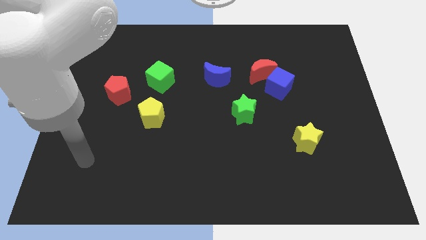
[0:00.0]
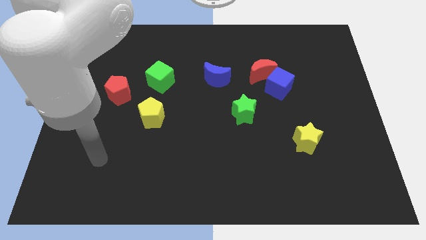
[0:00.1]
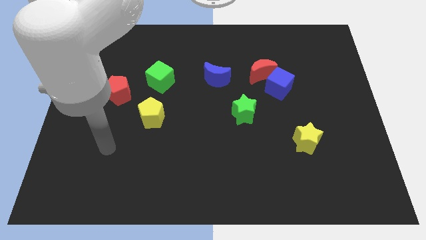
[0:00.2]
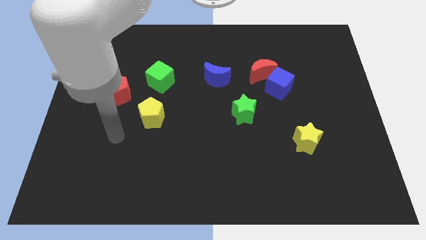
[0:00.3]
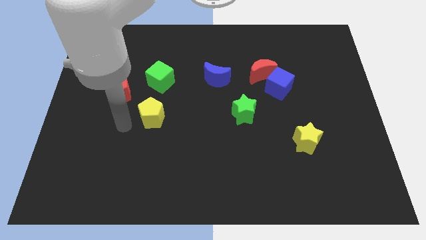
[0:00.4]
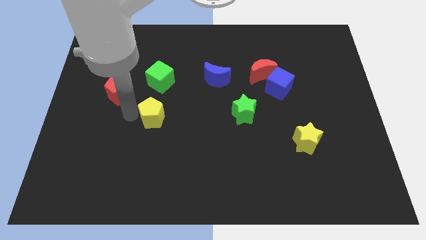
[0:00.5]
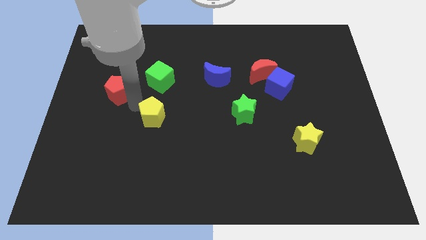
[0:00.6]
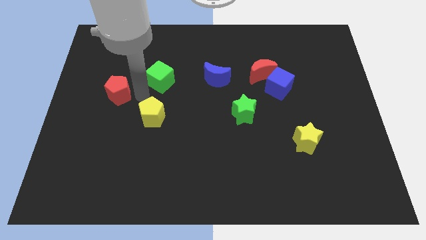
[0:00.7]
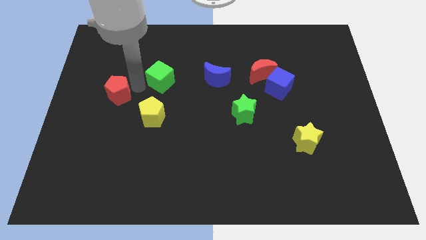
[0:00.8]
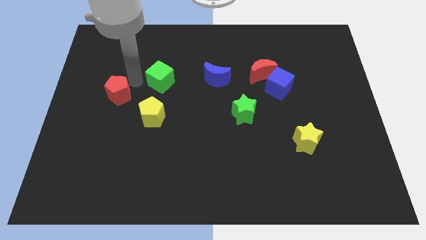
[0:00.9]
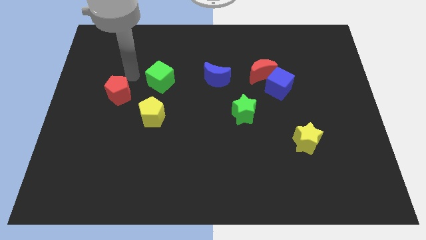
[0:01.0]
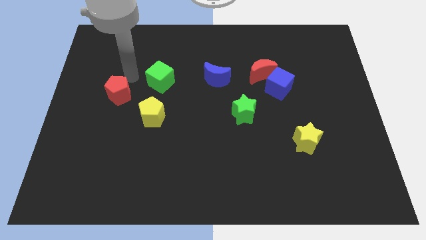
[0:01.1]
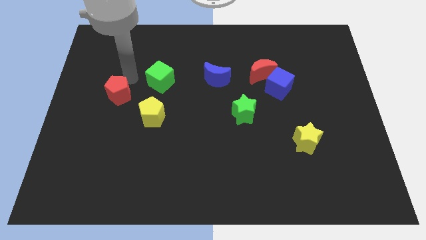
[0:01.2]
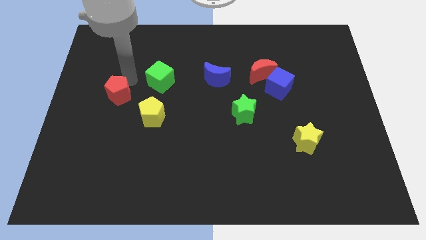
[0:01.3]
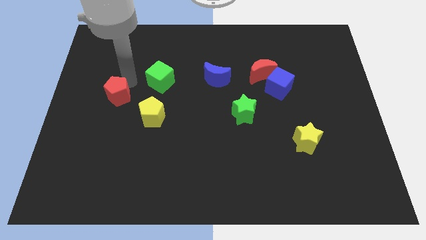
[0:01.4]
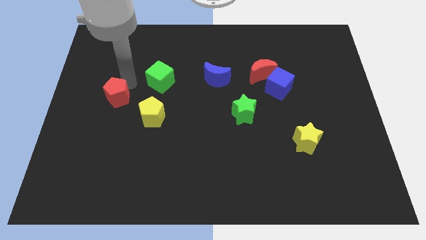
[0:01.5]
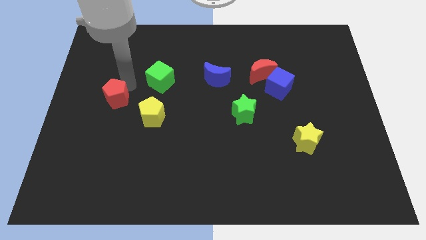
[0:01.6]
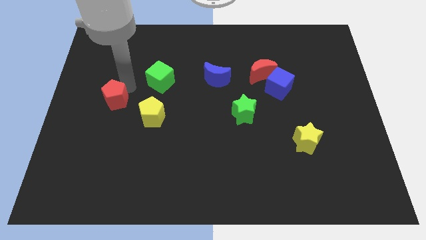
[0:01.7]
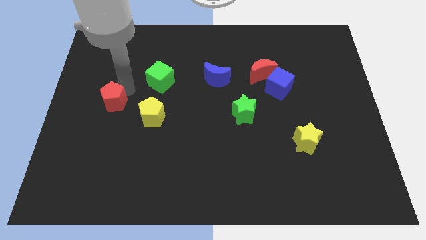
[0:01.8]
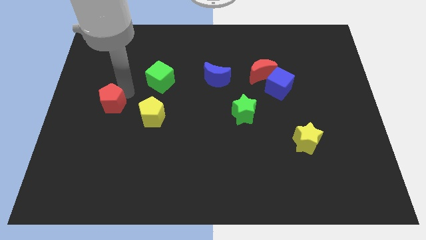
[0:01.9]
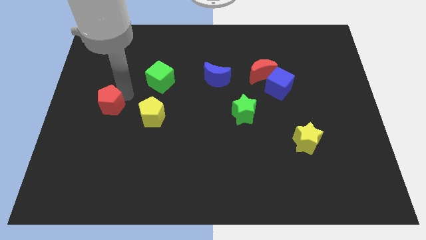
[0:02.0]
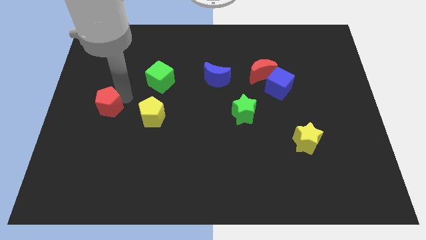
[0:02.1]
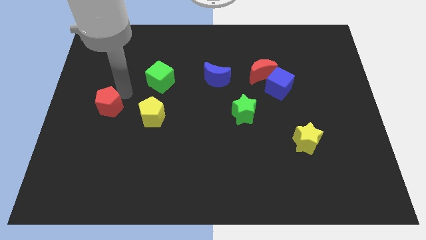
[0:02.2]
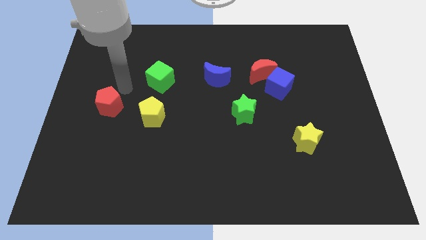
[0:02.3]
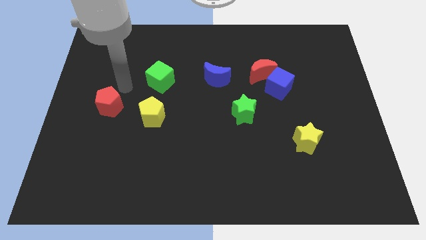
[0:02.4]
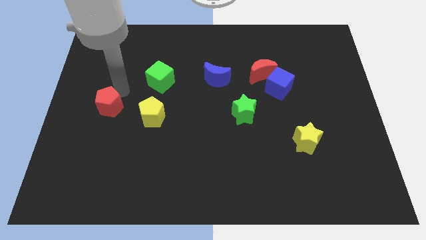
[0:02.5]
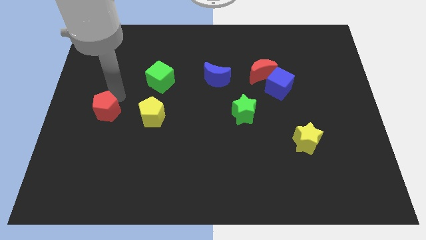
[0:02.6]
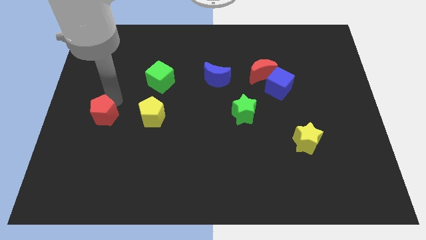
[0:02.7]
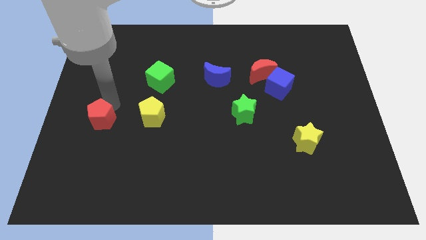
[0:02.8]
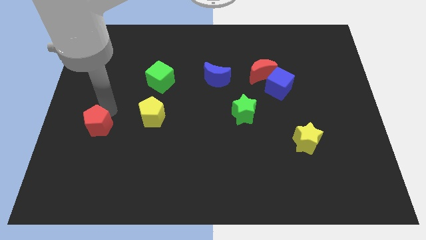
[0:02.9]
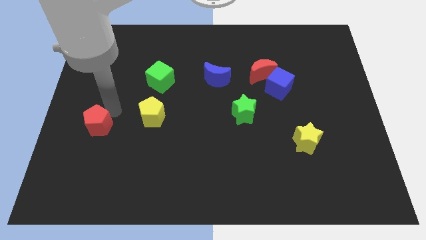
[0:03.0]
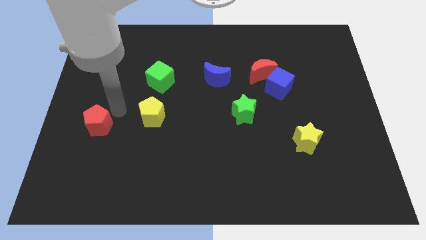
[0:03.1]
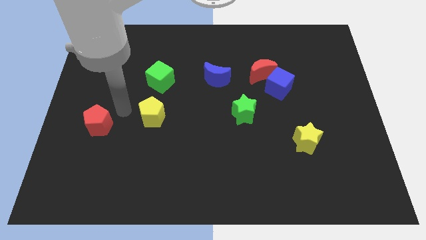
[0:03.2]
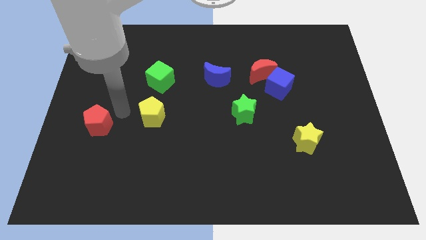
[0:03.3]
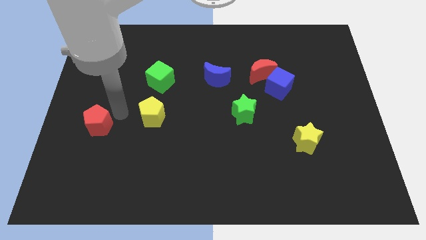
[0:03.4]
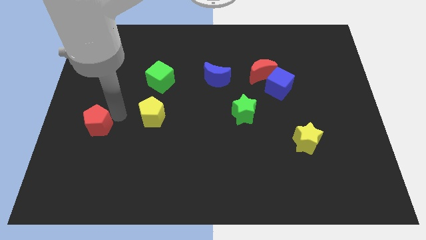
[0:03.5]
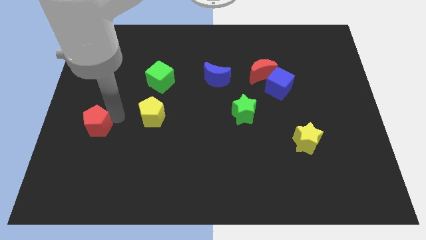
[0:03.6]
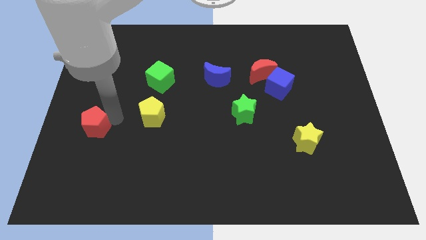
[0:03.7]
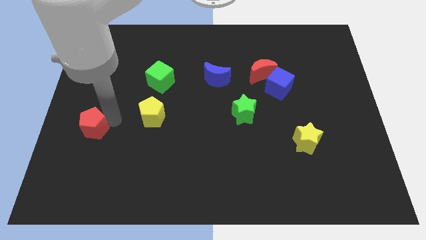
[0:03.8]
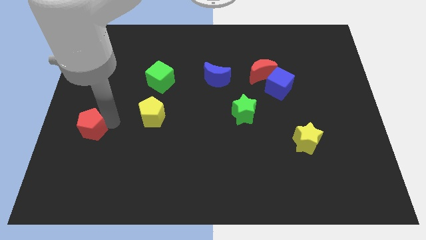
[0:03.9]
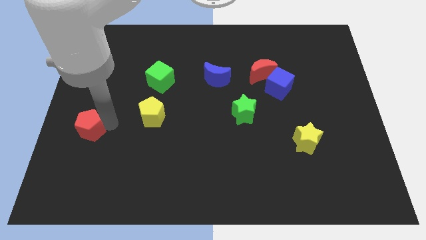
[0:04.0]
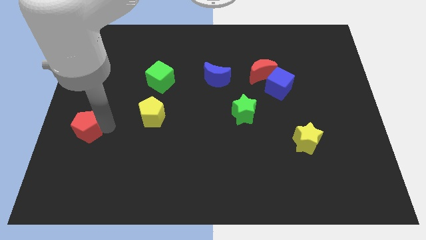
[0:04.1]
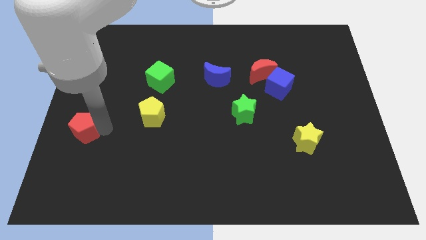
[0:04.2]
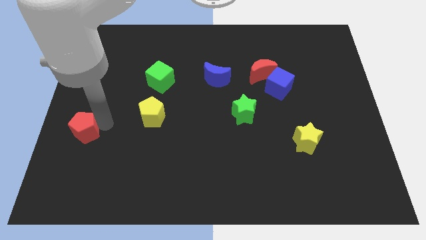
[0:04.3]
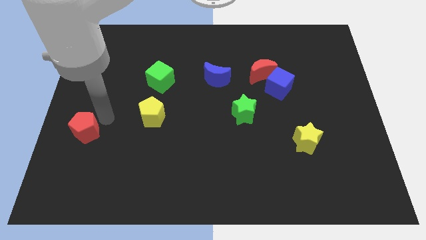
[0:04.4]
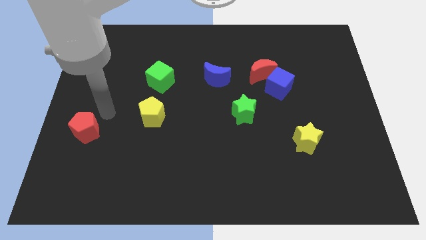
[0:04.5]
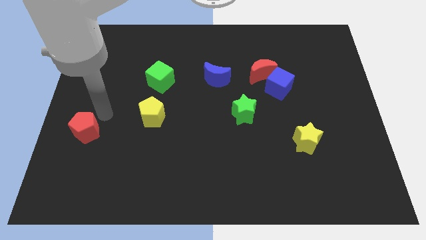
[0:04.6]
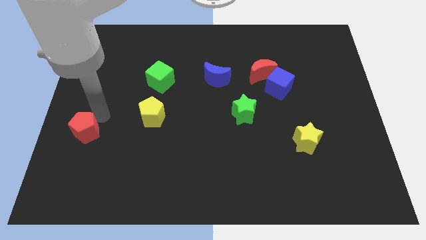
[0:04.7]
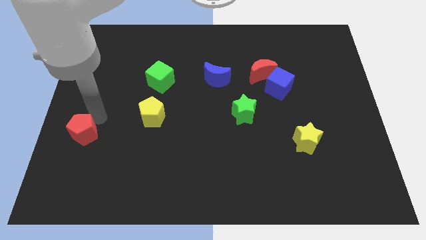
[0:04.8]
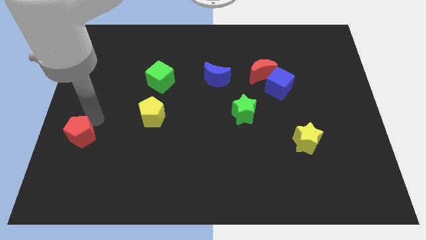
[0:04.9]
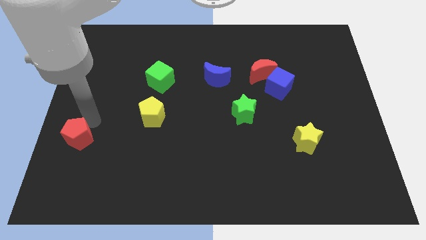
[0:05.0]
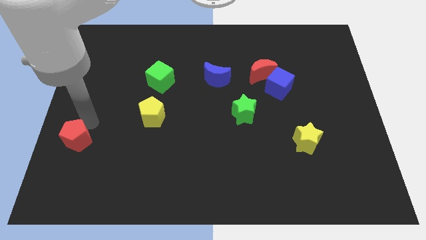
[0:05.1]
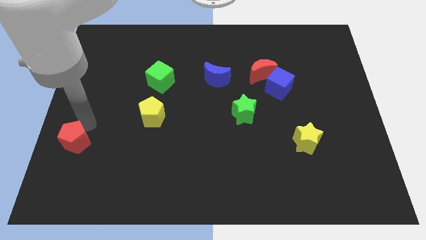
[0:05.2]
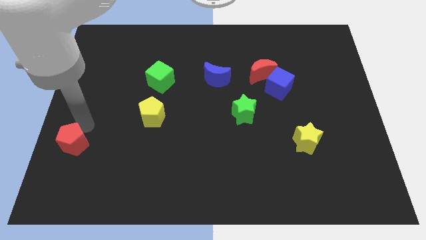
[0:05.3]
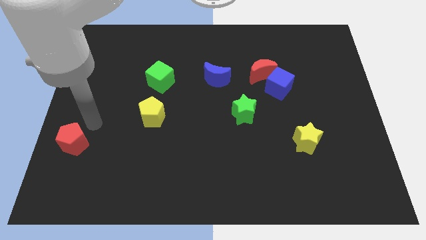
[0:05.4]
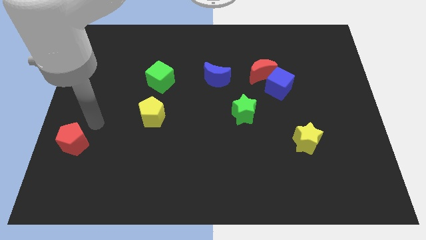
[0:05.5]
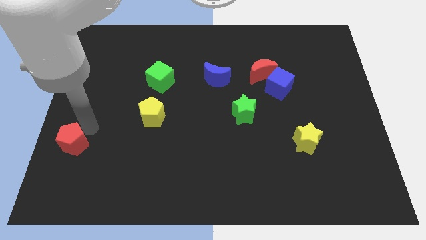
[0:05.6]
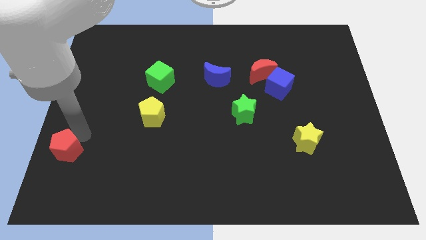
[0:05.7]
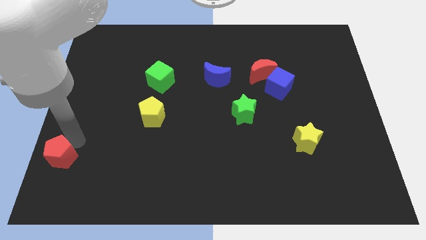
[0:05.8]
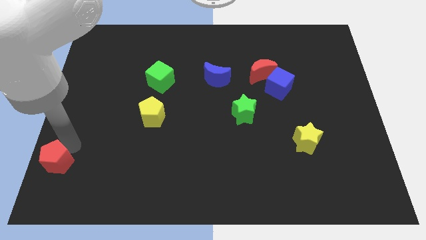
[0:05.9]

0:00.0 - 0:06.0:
move the red pentagon to the lower left corner
